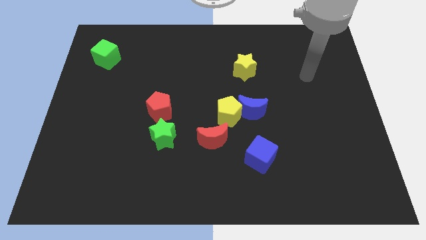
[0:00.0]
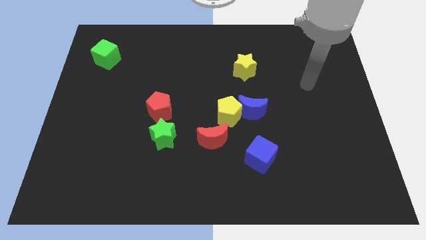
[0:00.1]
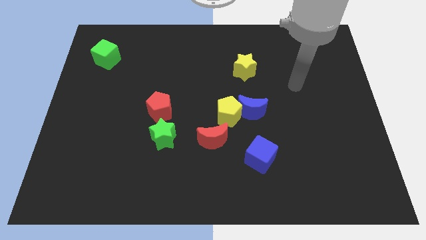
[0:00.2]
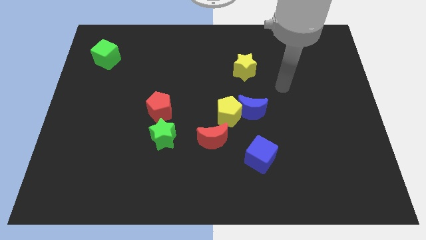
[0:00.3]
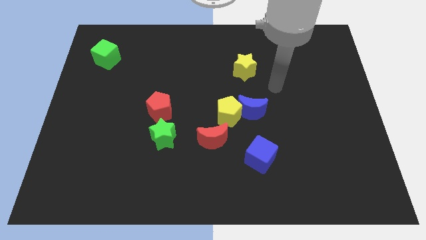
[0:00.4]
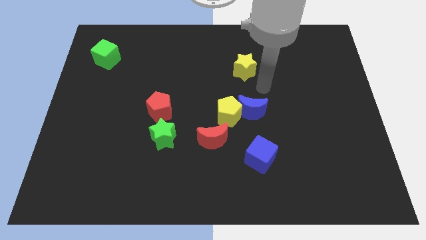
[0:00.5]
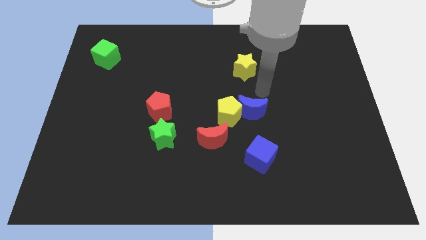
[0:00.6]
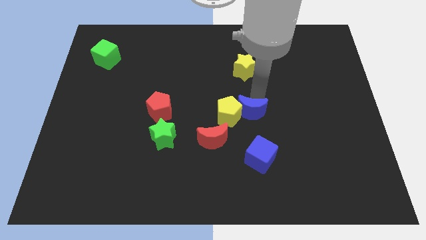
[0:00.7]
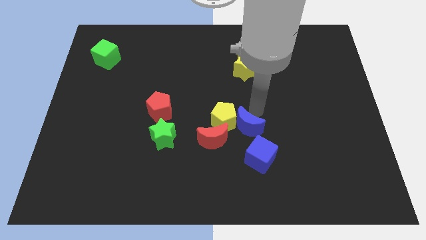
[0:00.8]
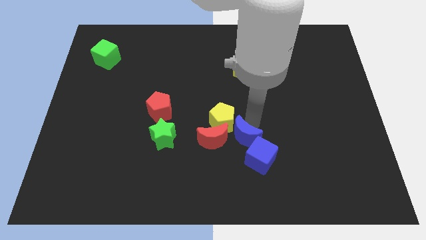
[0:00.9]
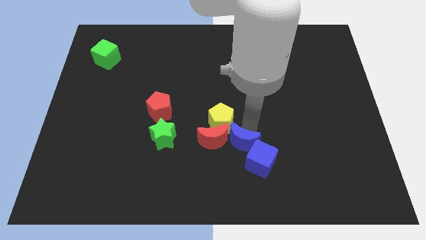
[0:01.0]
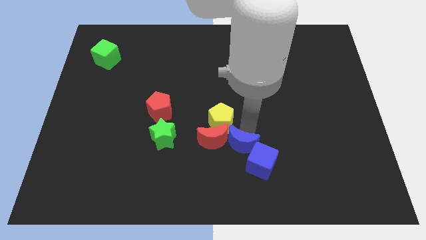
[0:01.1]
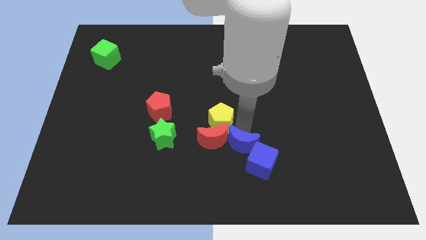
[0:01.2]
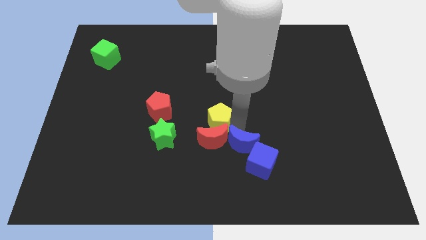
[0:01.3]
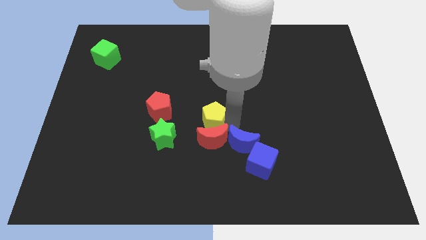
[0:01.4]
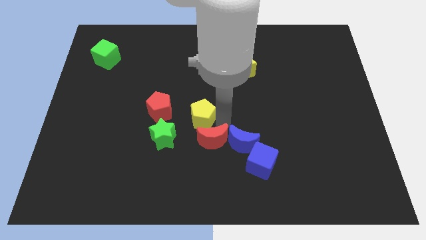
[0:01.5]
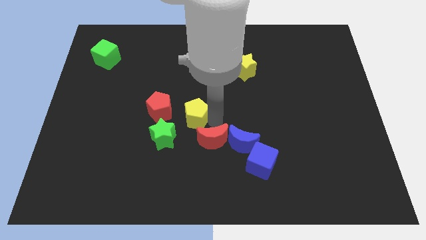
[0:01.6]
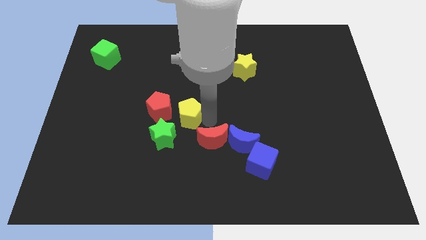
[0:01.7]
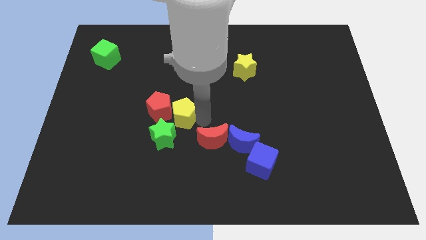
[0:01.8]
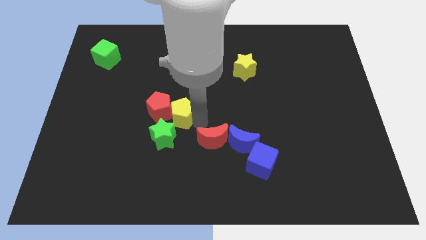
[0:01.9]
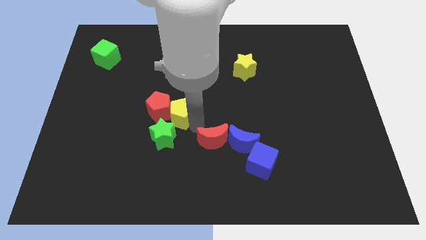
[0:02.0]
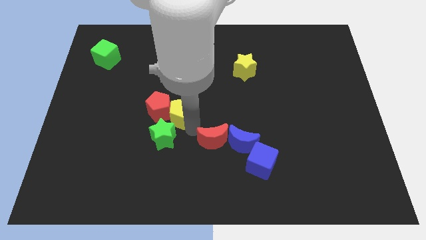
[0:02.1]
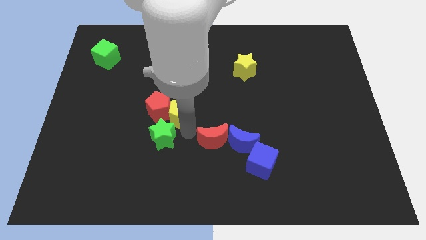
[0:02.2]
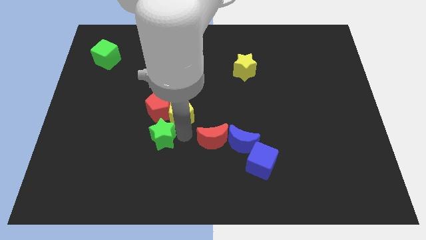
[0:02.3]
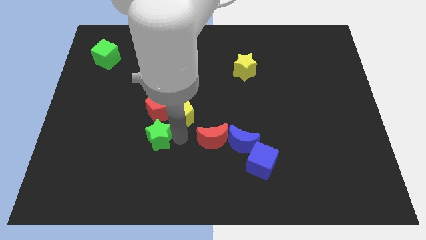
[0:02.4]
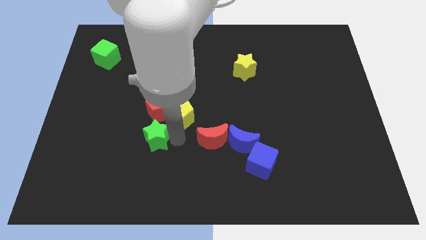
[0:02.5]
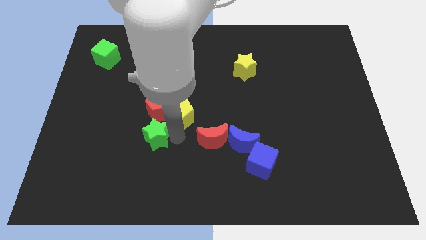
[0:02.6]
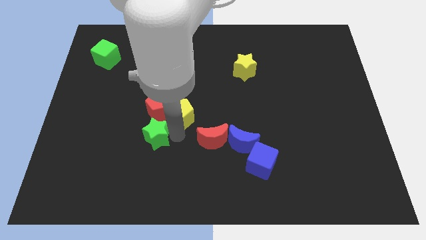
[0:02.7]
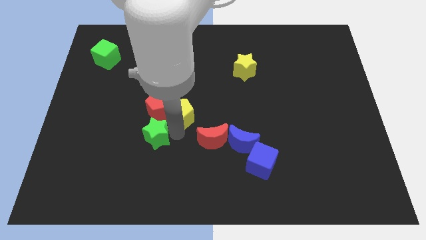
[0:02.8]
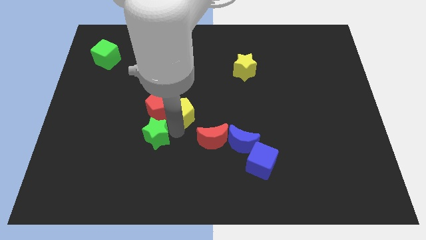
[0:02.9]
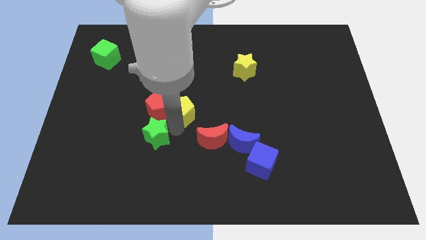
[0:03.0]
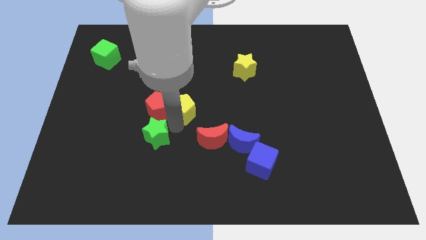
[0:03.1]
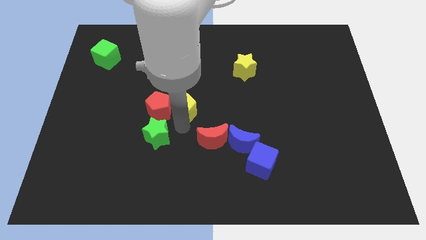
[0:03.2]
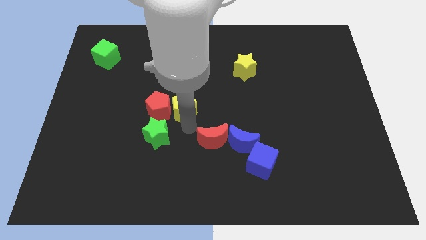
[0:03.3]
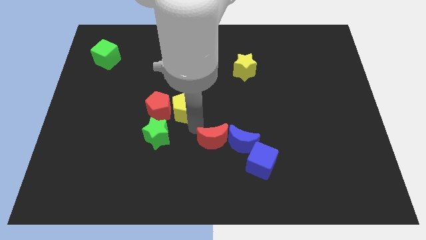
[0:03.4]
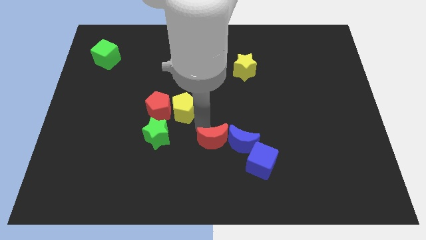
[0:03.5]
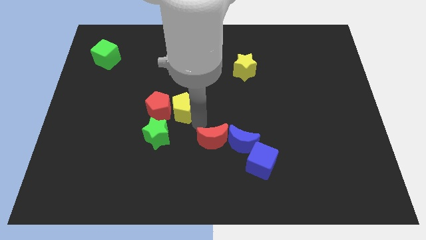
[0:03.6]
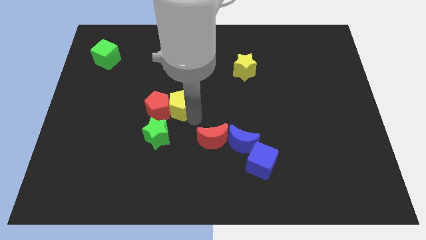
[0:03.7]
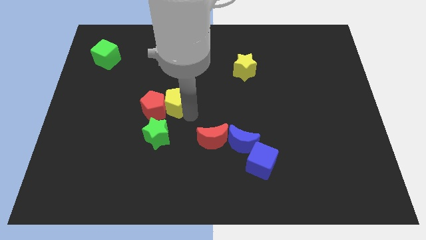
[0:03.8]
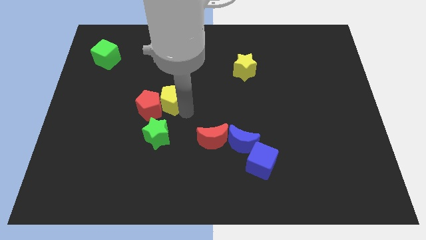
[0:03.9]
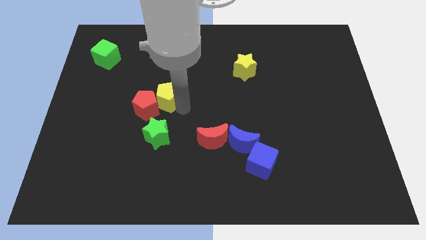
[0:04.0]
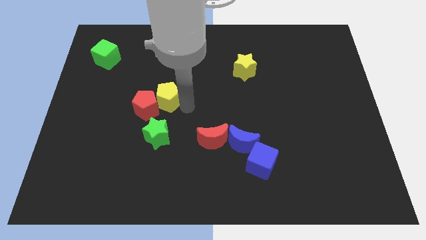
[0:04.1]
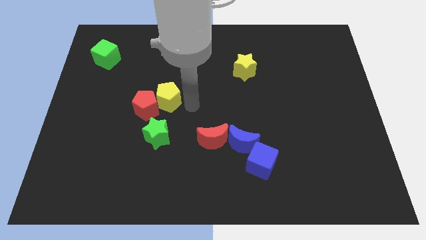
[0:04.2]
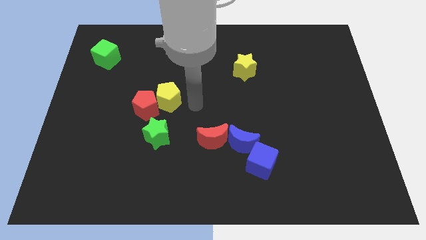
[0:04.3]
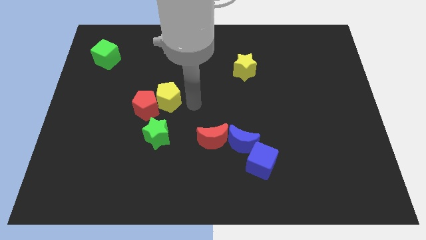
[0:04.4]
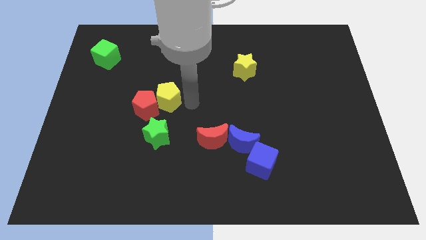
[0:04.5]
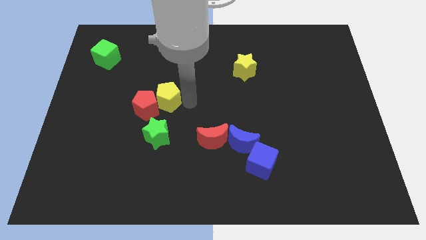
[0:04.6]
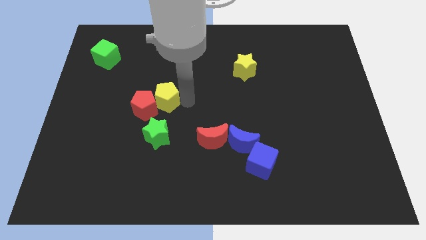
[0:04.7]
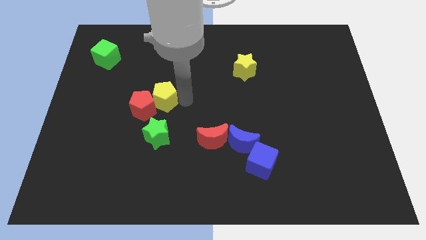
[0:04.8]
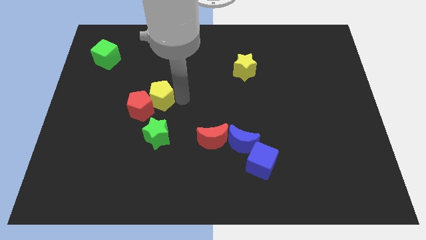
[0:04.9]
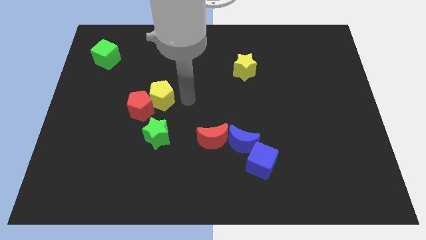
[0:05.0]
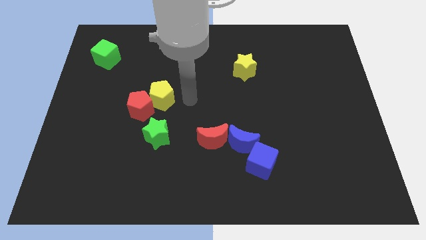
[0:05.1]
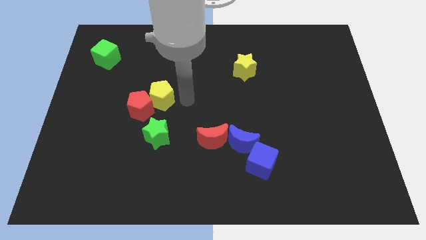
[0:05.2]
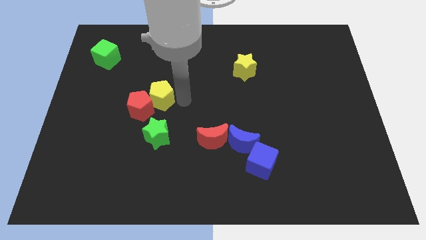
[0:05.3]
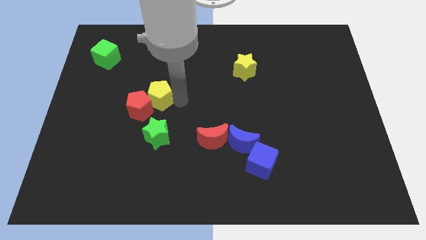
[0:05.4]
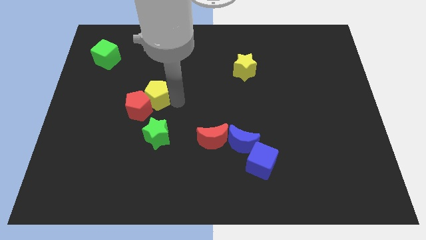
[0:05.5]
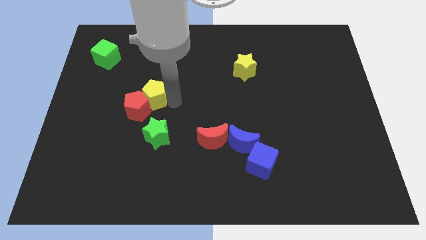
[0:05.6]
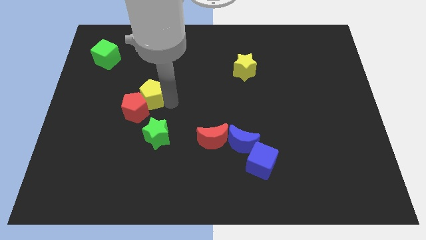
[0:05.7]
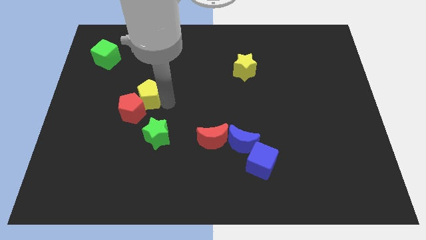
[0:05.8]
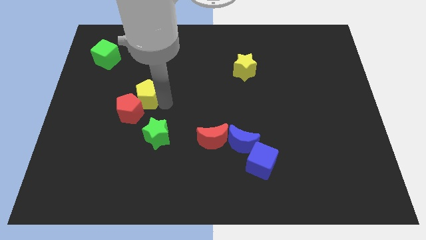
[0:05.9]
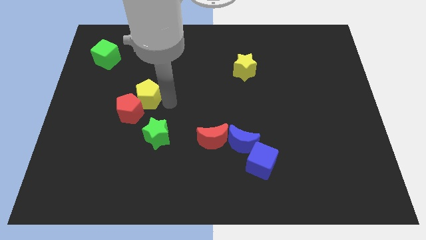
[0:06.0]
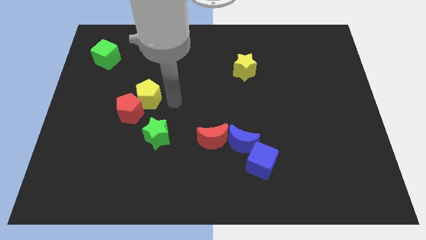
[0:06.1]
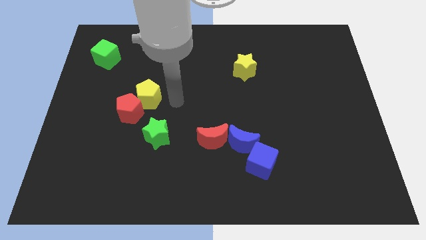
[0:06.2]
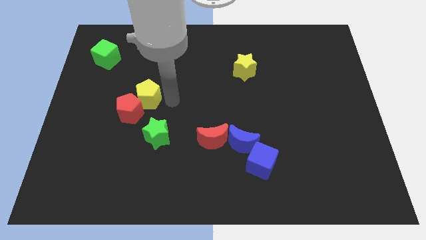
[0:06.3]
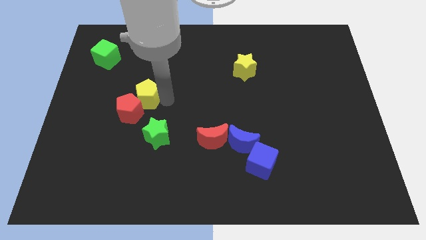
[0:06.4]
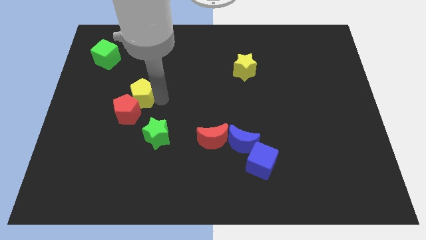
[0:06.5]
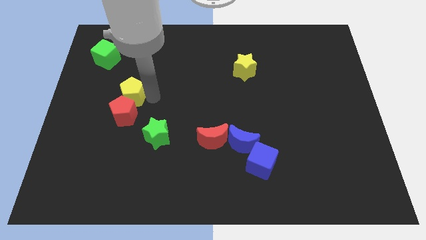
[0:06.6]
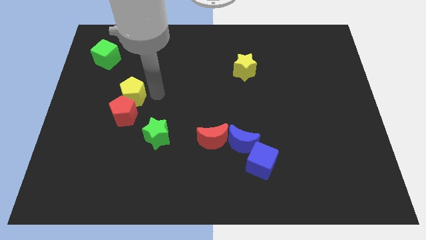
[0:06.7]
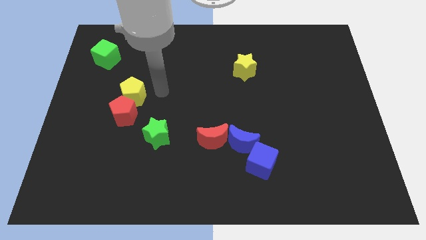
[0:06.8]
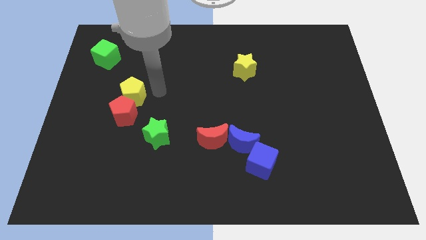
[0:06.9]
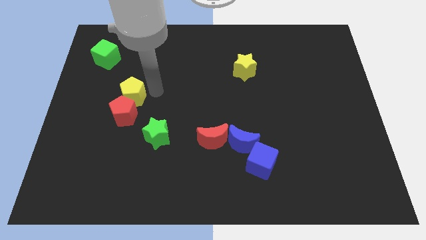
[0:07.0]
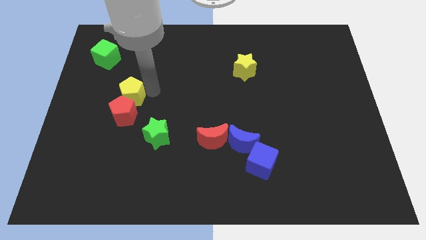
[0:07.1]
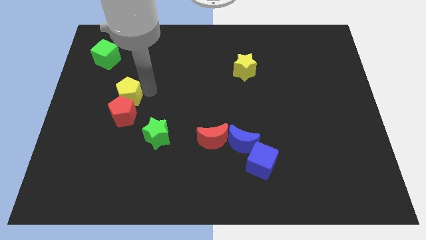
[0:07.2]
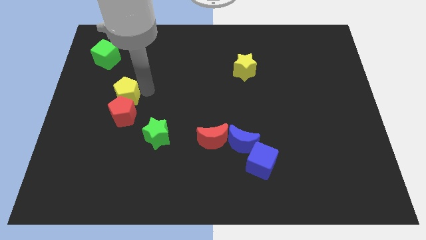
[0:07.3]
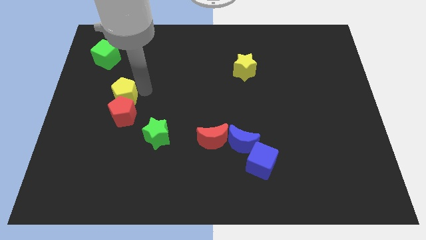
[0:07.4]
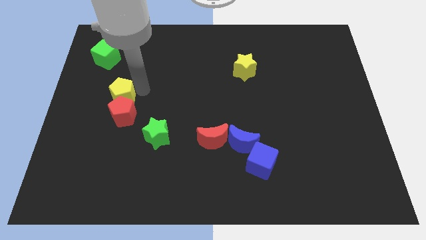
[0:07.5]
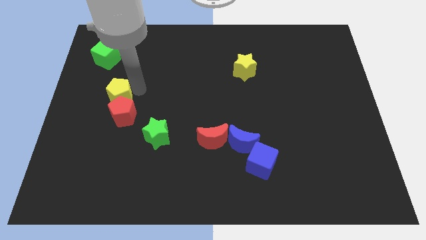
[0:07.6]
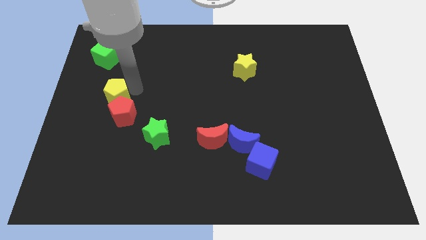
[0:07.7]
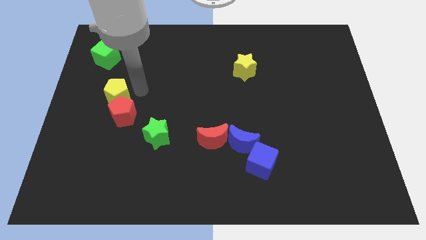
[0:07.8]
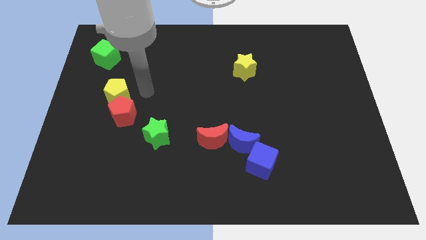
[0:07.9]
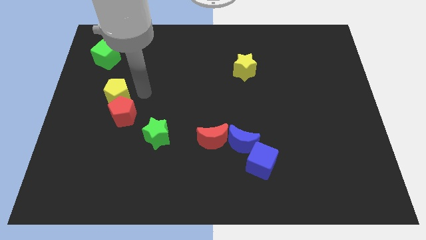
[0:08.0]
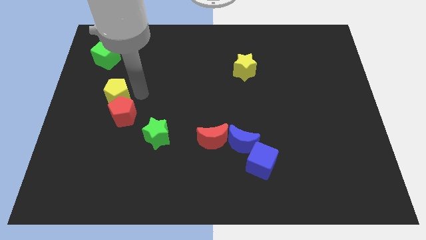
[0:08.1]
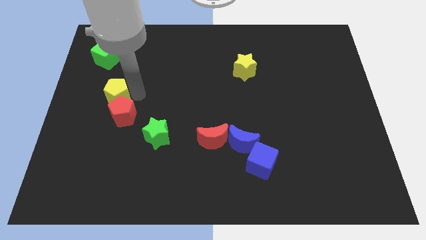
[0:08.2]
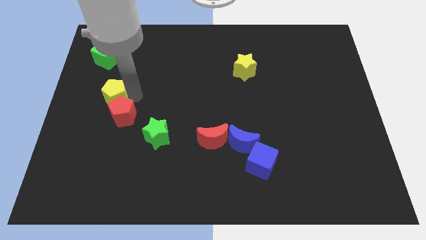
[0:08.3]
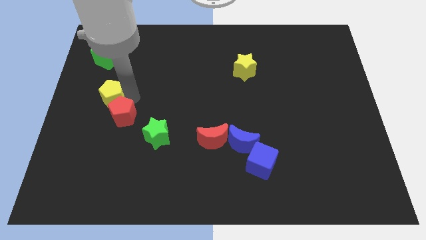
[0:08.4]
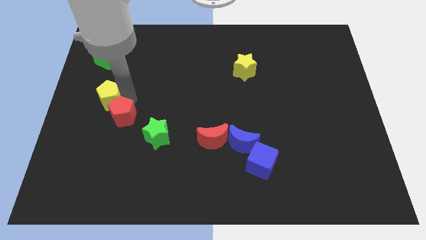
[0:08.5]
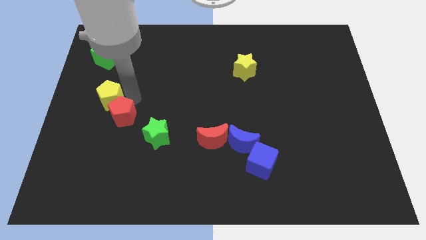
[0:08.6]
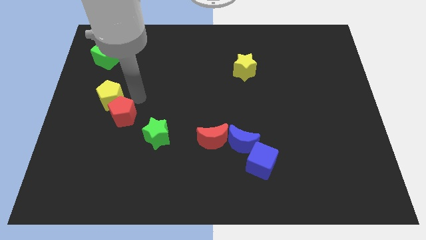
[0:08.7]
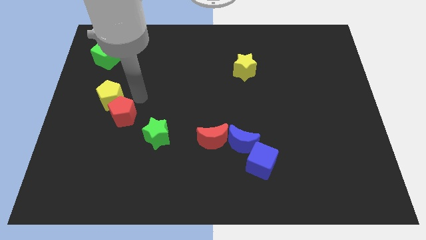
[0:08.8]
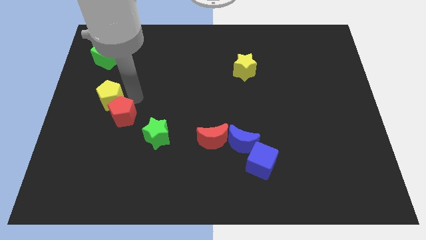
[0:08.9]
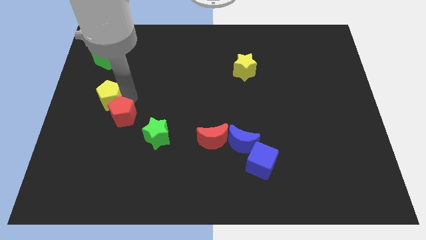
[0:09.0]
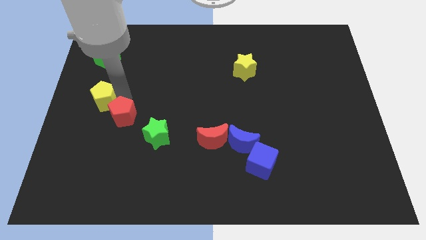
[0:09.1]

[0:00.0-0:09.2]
put the yellow pentagon to the left side of the board
